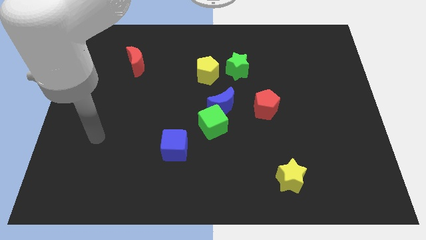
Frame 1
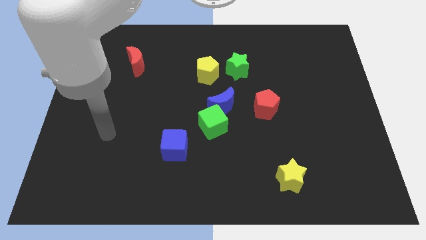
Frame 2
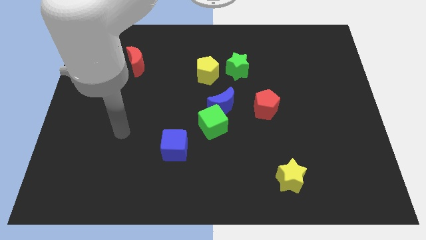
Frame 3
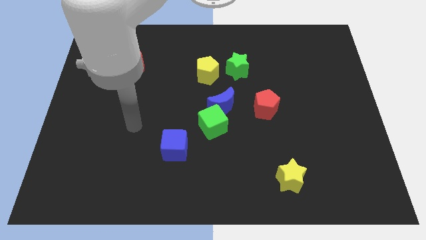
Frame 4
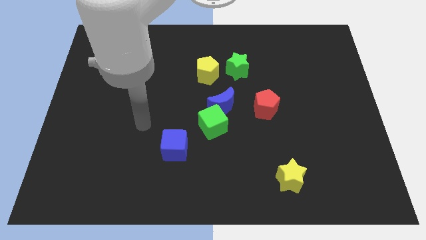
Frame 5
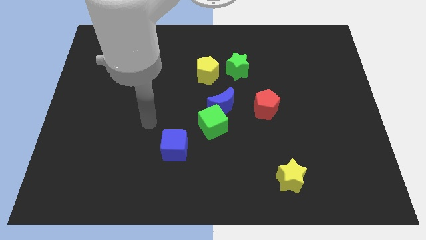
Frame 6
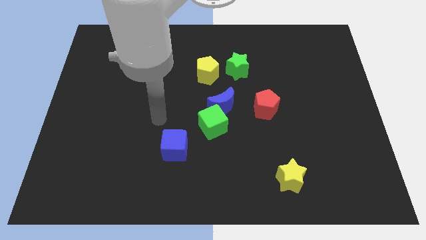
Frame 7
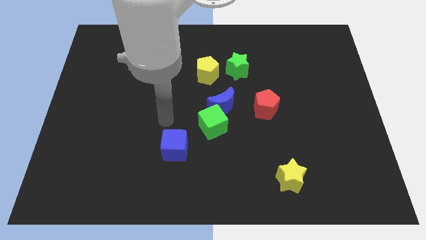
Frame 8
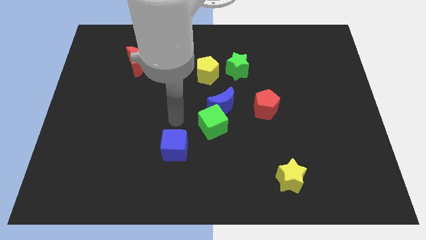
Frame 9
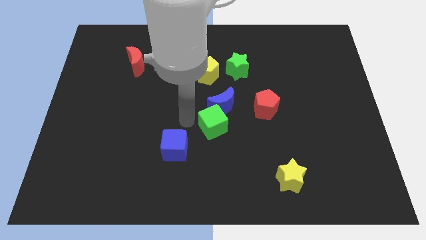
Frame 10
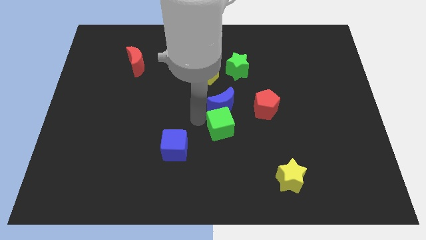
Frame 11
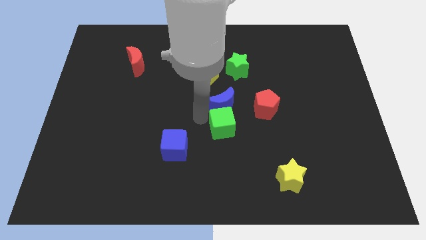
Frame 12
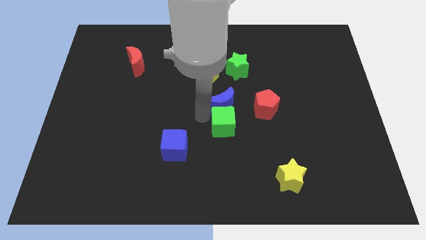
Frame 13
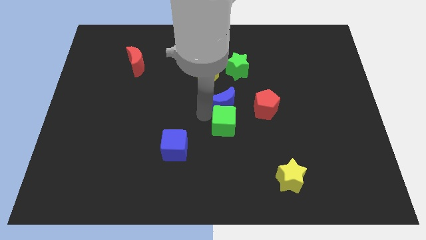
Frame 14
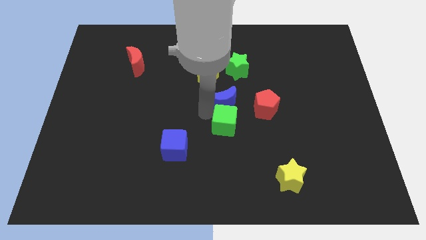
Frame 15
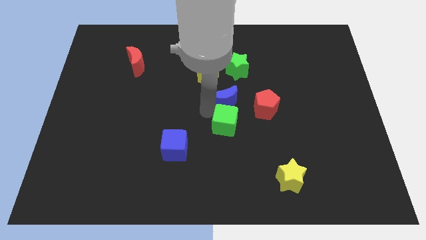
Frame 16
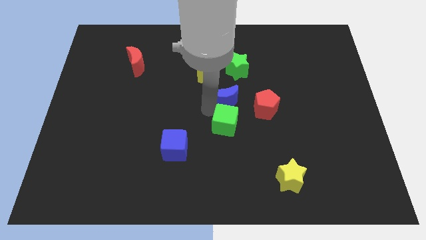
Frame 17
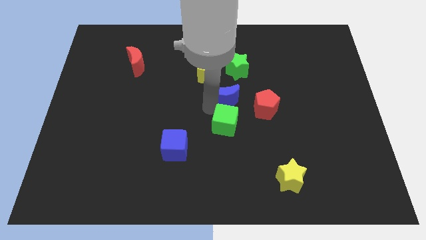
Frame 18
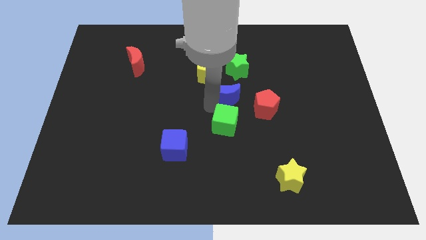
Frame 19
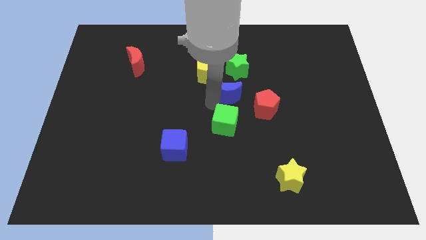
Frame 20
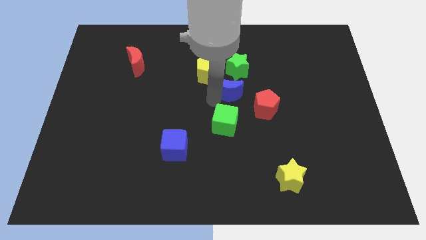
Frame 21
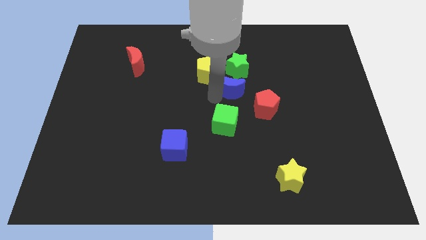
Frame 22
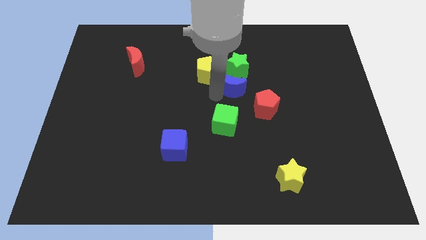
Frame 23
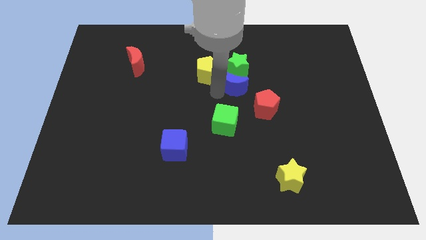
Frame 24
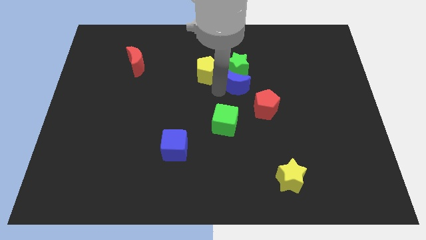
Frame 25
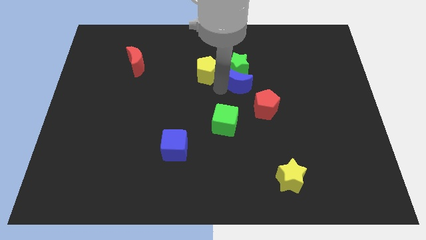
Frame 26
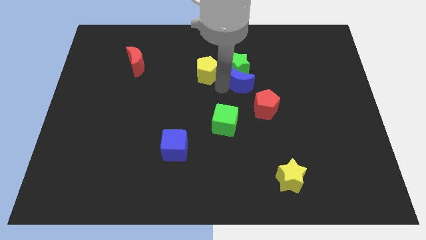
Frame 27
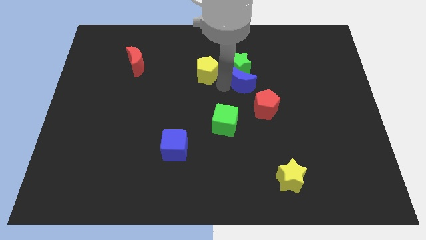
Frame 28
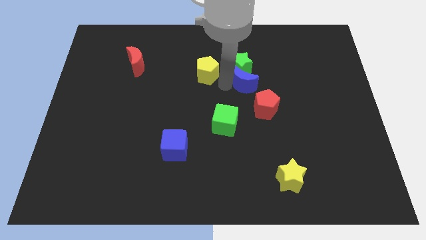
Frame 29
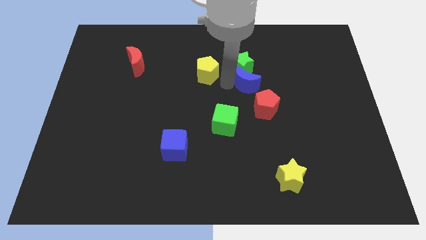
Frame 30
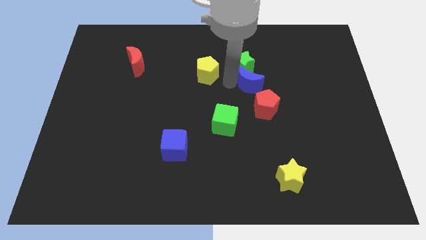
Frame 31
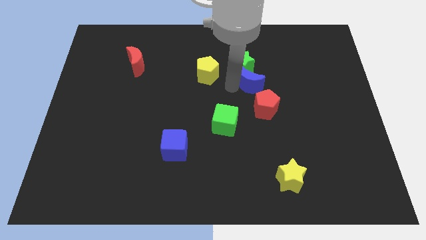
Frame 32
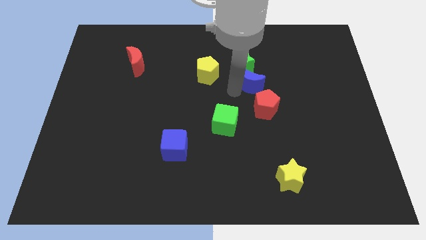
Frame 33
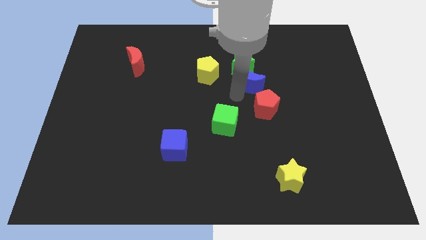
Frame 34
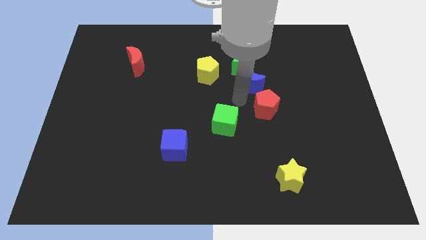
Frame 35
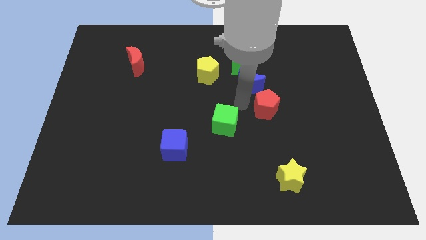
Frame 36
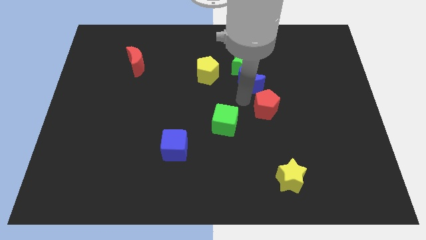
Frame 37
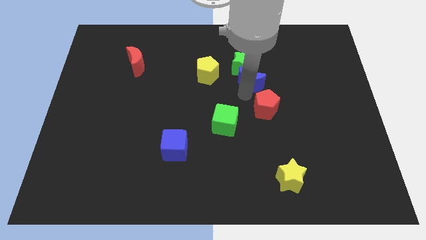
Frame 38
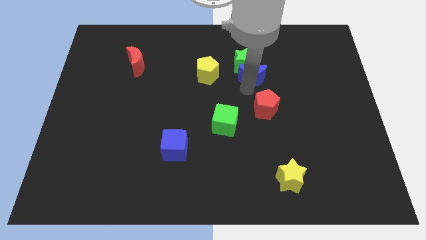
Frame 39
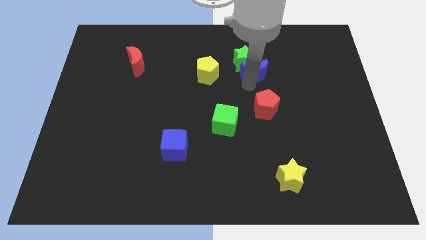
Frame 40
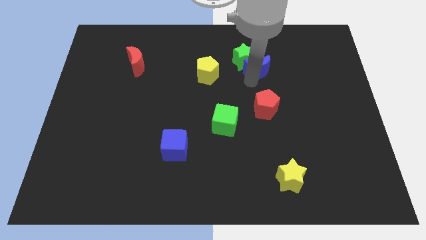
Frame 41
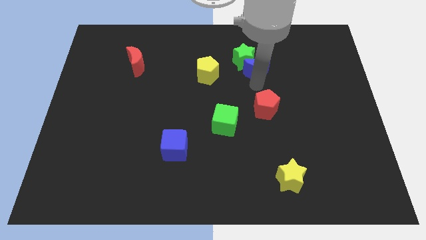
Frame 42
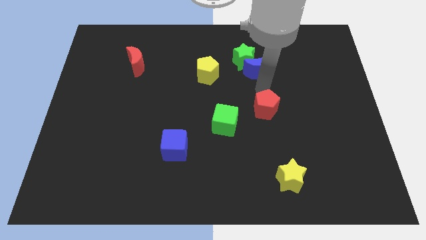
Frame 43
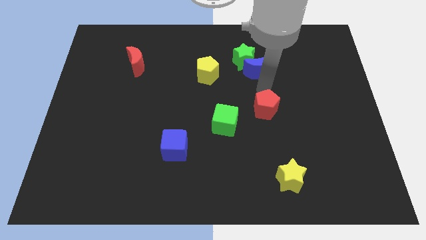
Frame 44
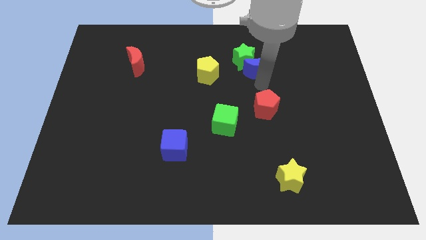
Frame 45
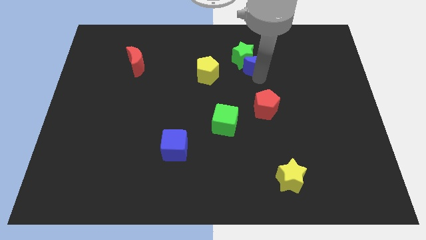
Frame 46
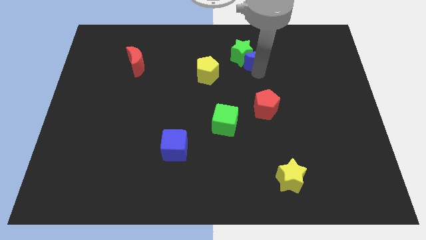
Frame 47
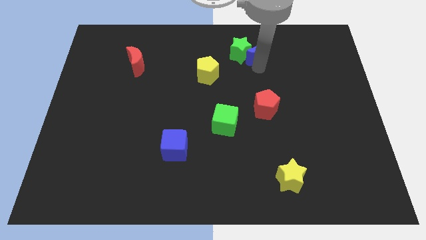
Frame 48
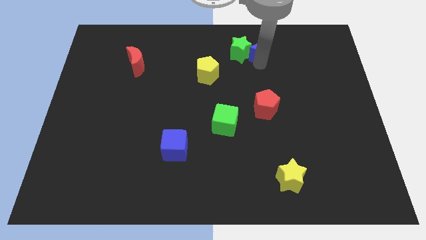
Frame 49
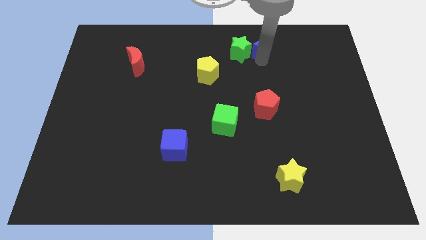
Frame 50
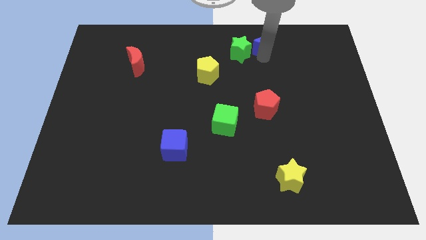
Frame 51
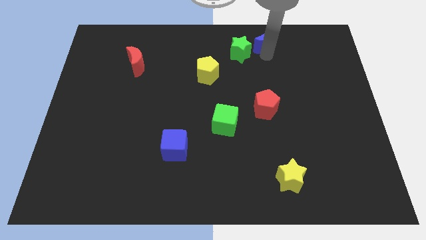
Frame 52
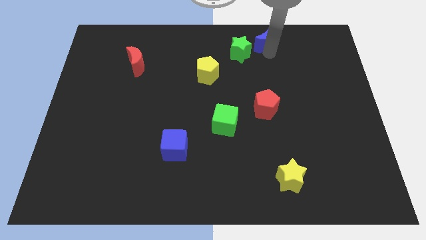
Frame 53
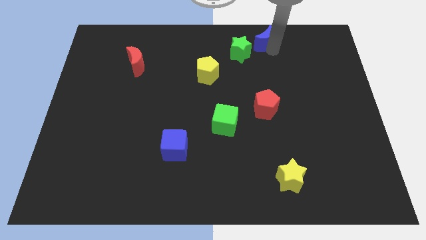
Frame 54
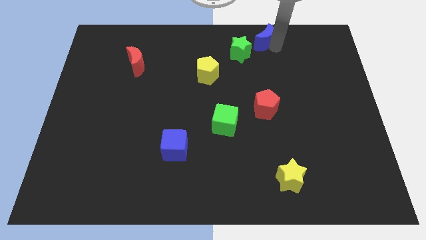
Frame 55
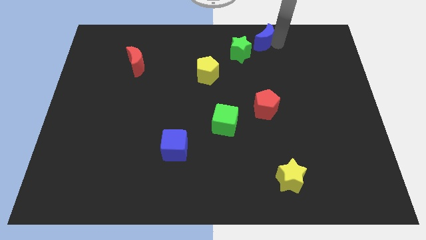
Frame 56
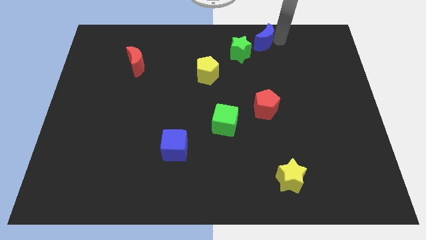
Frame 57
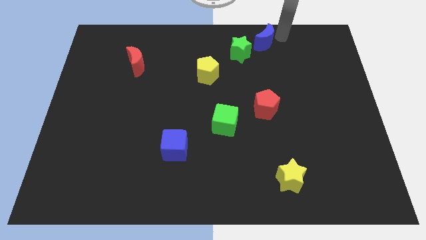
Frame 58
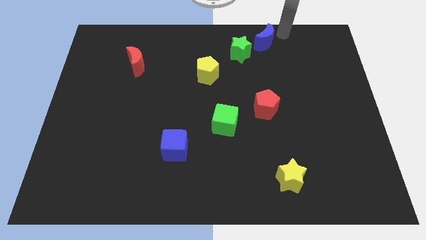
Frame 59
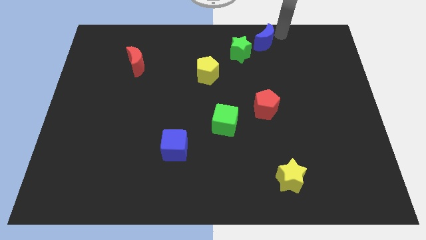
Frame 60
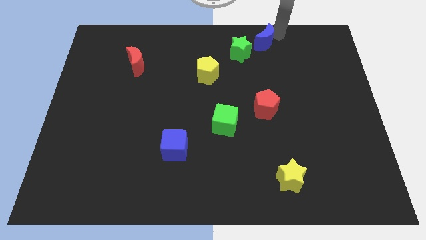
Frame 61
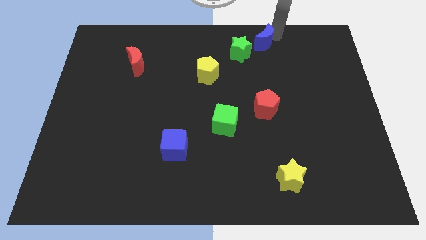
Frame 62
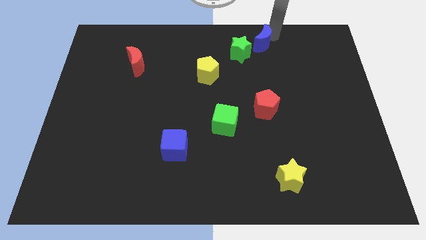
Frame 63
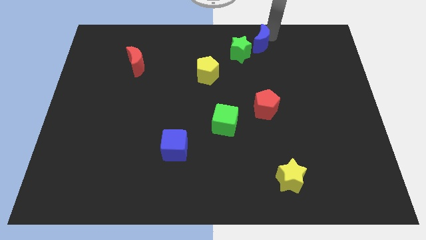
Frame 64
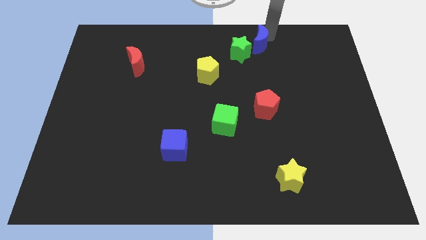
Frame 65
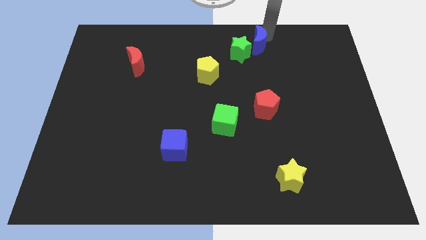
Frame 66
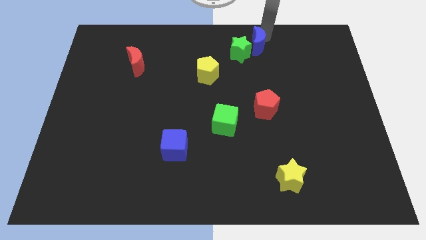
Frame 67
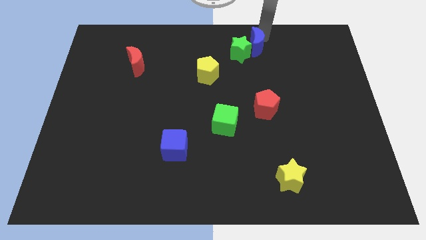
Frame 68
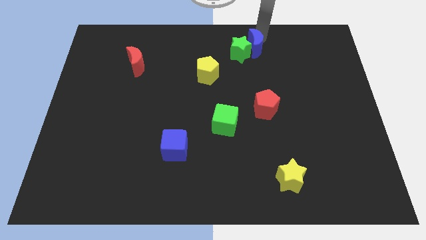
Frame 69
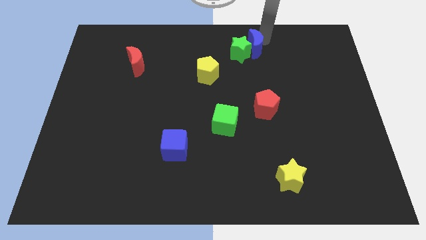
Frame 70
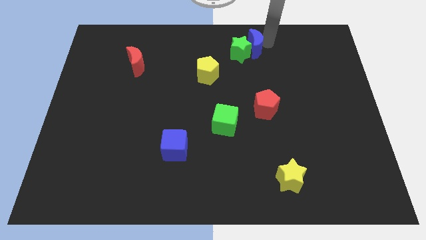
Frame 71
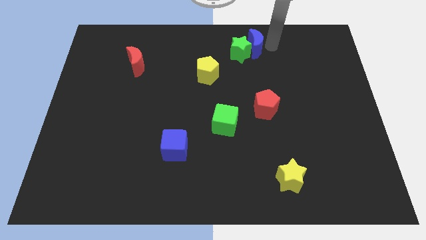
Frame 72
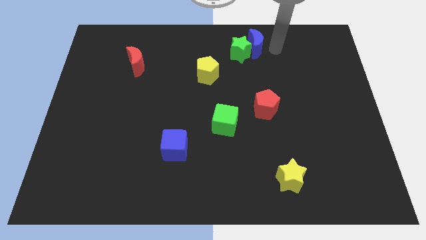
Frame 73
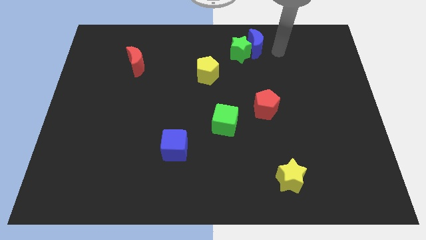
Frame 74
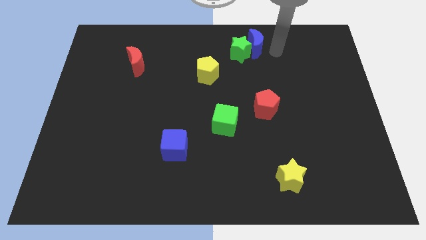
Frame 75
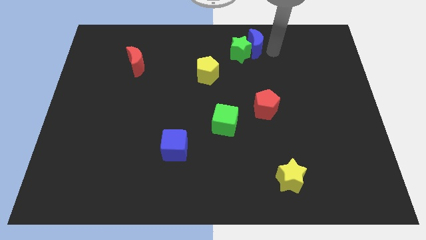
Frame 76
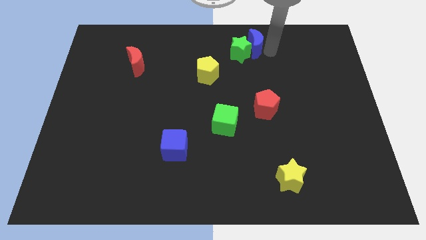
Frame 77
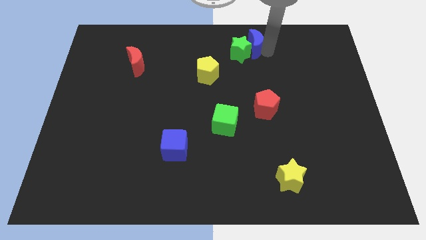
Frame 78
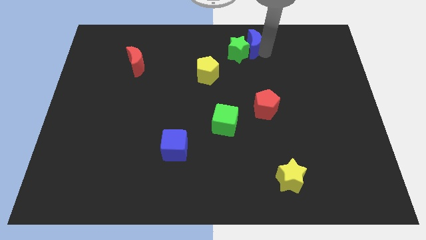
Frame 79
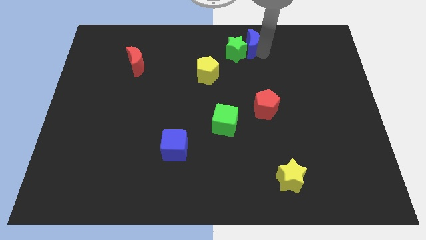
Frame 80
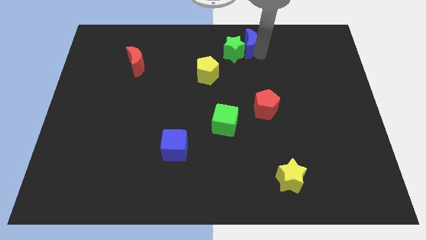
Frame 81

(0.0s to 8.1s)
slide the blue moon to the top
